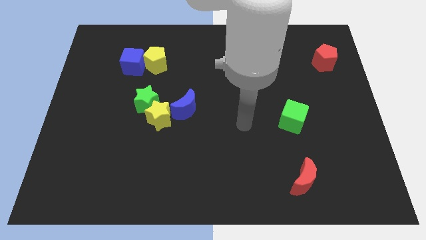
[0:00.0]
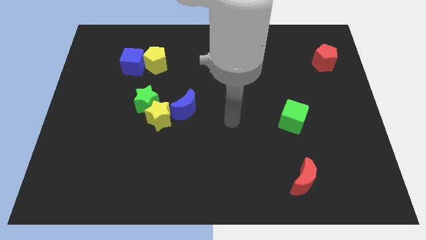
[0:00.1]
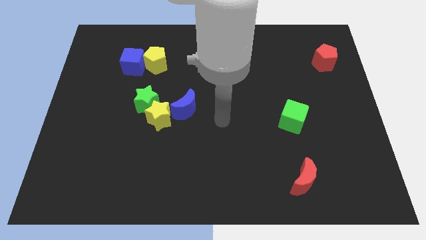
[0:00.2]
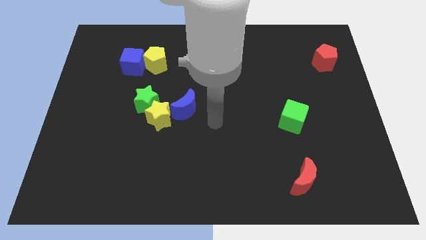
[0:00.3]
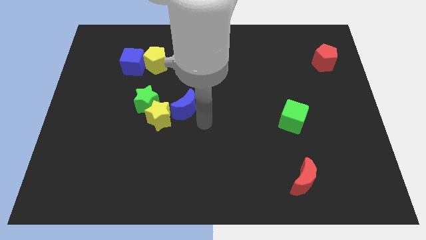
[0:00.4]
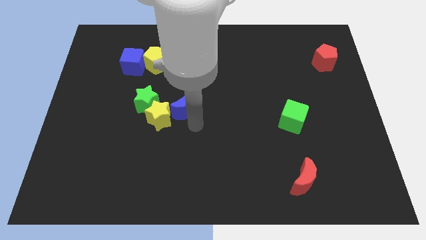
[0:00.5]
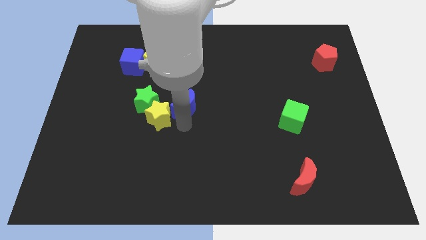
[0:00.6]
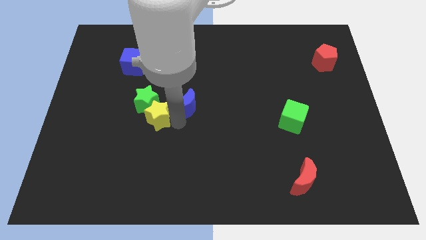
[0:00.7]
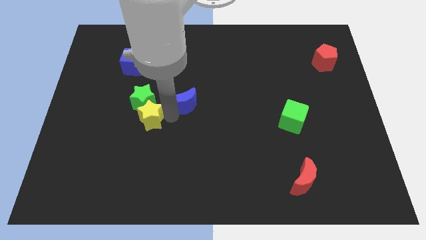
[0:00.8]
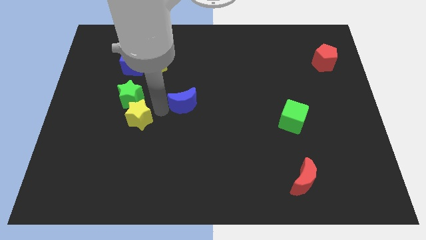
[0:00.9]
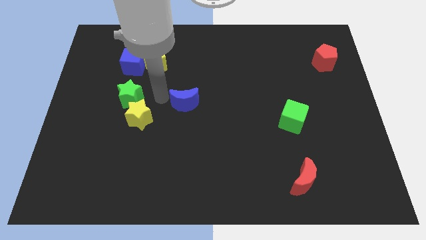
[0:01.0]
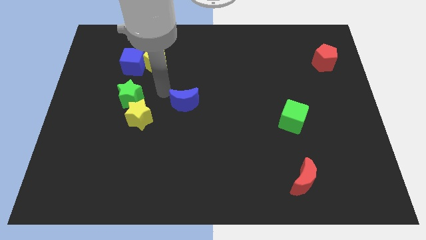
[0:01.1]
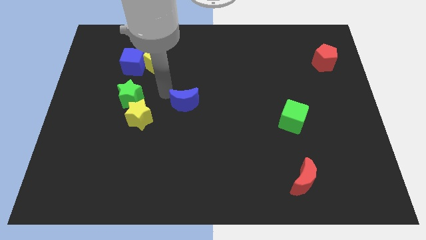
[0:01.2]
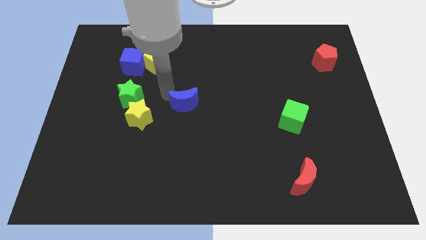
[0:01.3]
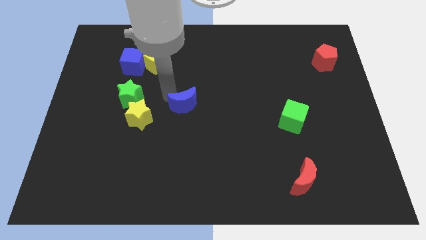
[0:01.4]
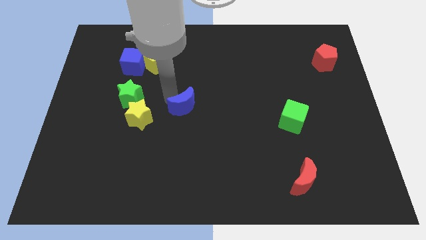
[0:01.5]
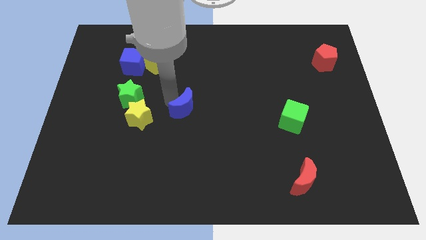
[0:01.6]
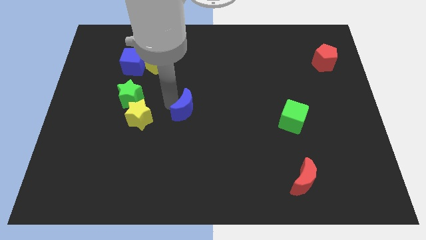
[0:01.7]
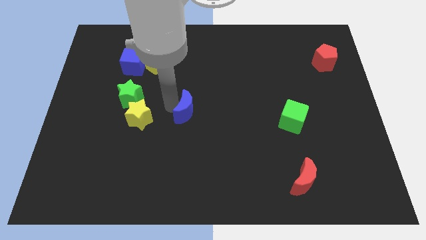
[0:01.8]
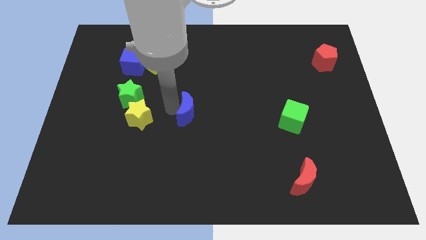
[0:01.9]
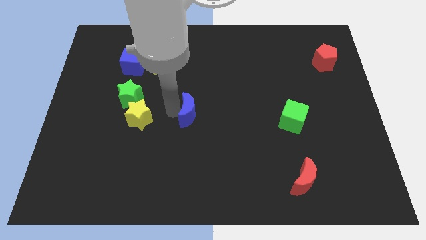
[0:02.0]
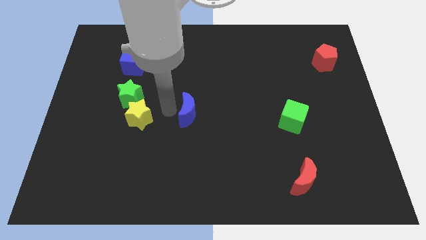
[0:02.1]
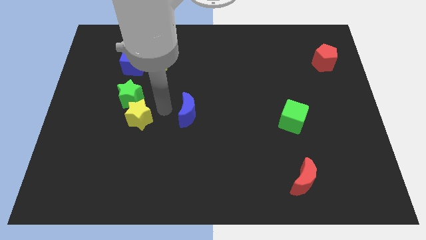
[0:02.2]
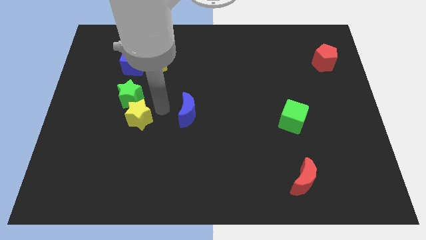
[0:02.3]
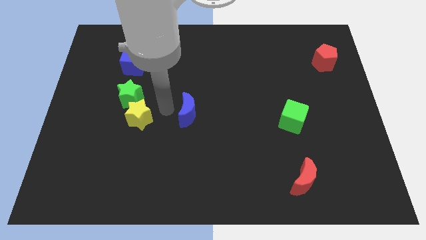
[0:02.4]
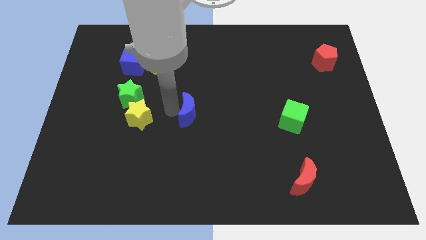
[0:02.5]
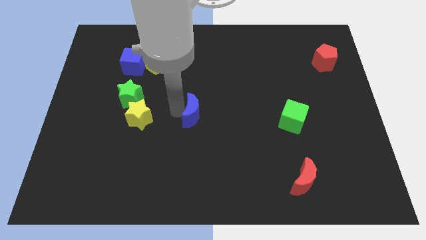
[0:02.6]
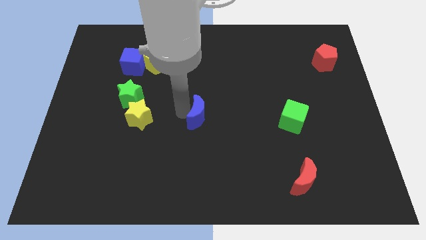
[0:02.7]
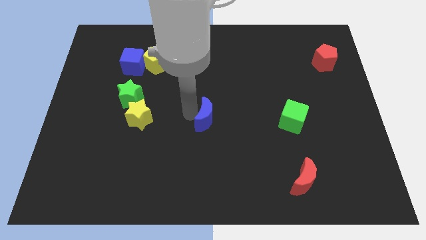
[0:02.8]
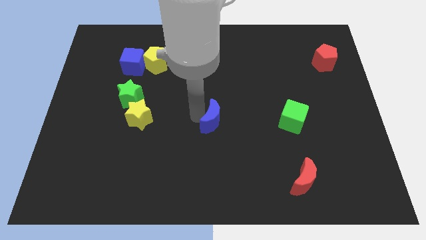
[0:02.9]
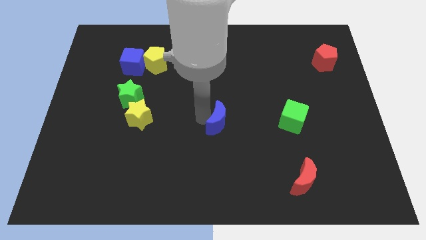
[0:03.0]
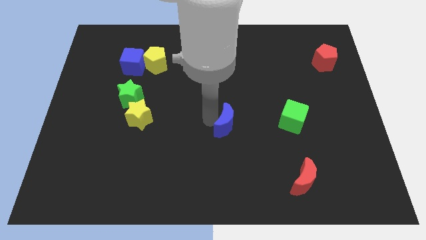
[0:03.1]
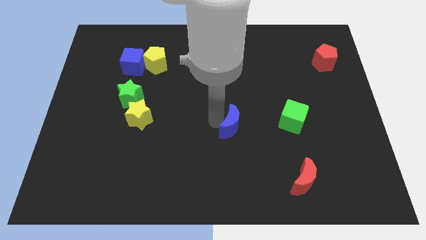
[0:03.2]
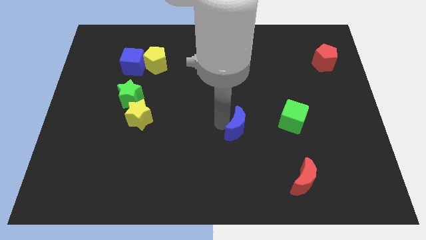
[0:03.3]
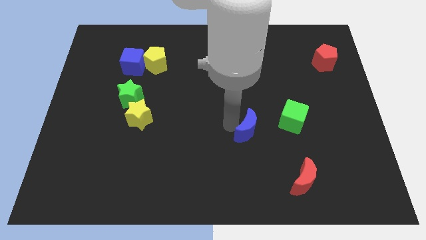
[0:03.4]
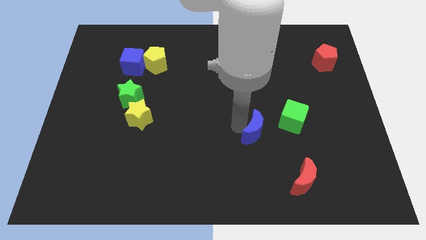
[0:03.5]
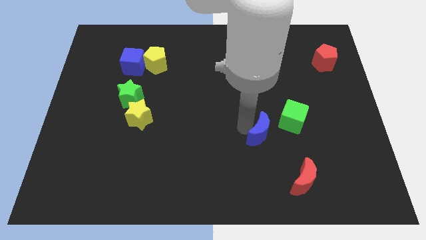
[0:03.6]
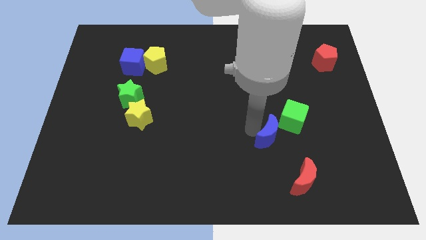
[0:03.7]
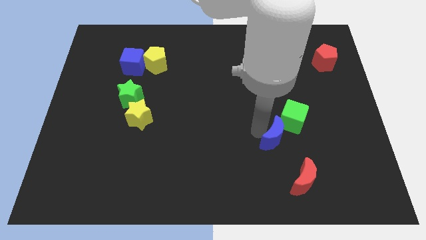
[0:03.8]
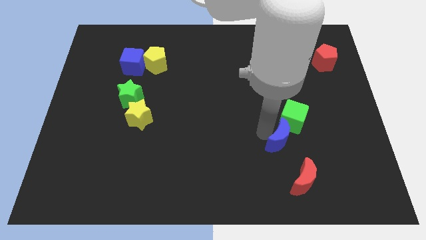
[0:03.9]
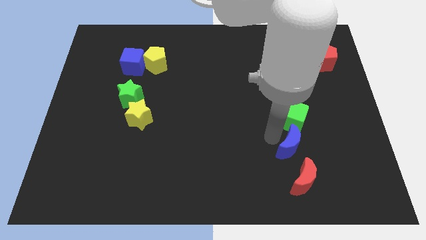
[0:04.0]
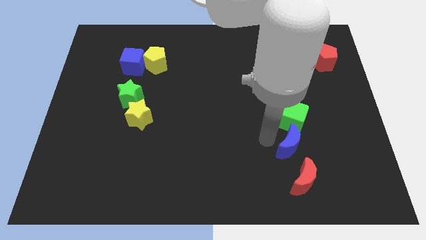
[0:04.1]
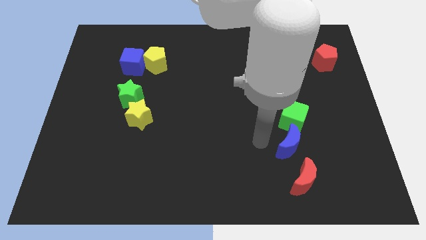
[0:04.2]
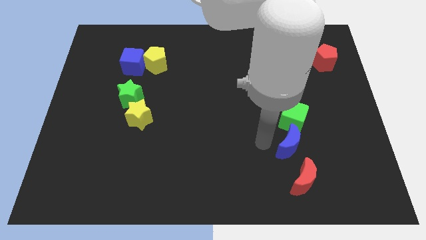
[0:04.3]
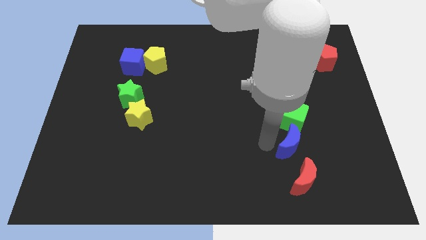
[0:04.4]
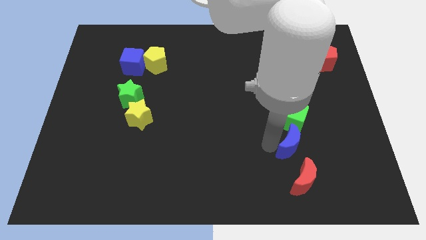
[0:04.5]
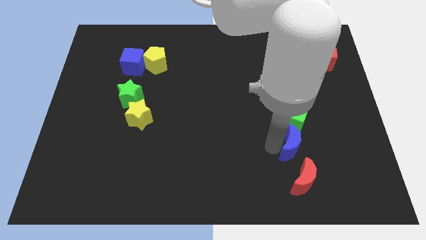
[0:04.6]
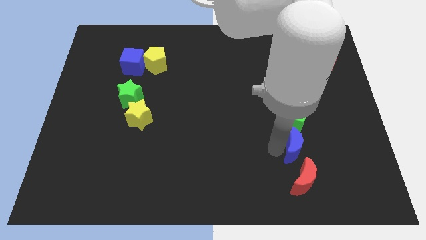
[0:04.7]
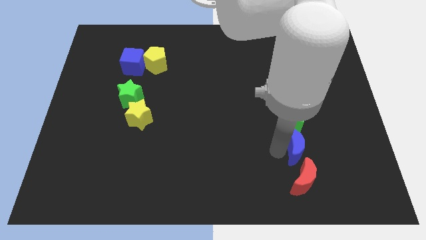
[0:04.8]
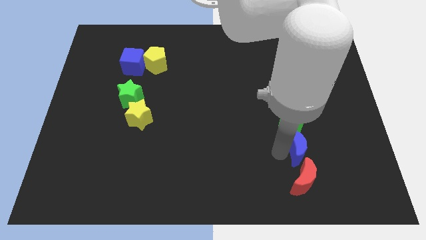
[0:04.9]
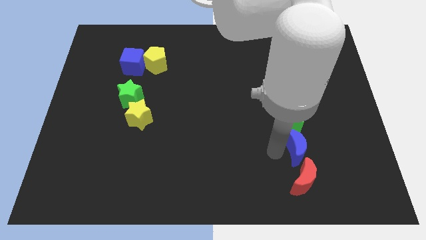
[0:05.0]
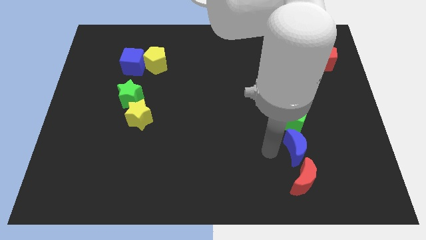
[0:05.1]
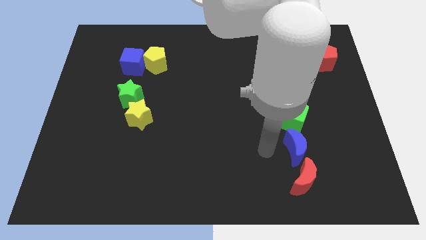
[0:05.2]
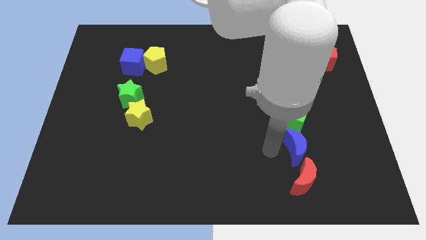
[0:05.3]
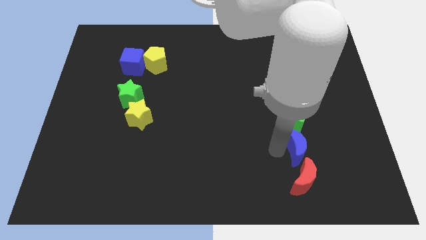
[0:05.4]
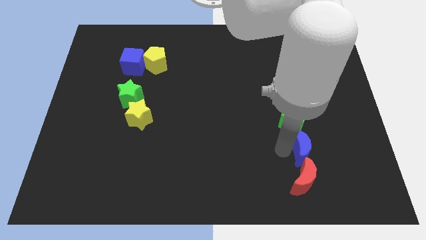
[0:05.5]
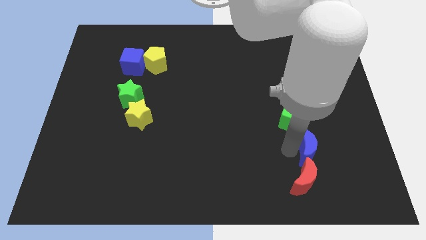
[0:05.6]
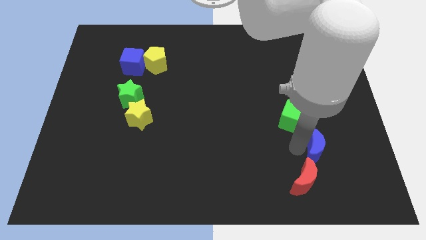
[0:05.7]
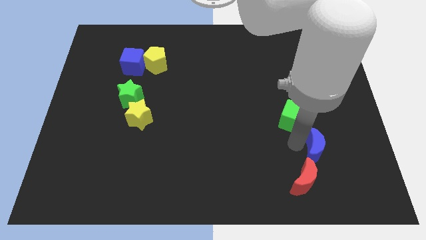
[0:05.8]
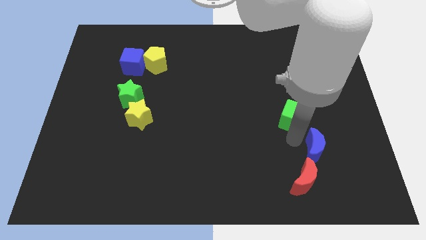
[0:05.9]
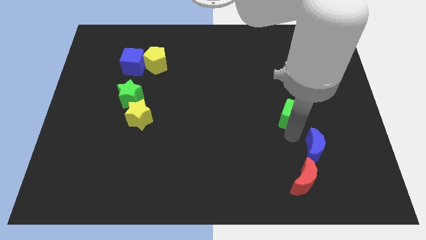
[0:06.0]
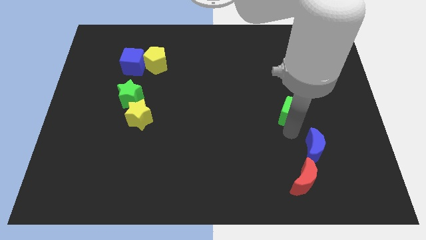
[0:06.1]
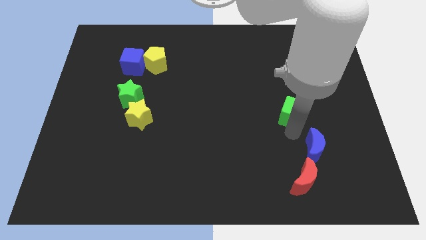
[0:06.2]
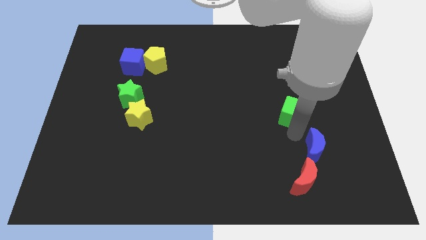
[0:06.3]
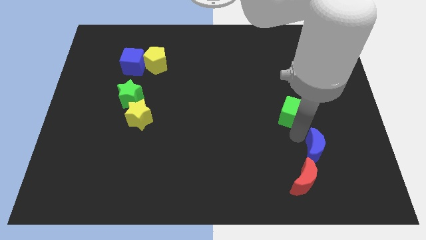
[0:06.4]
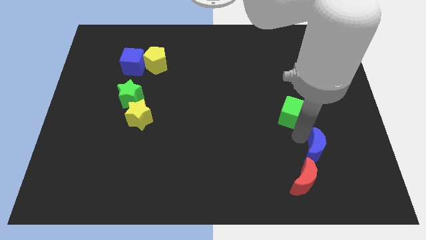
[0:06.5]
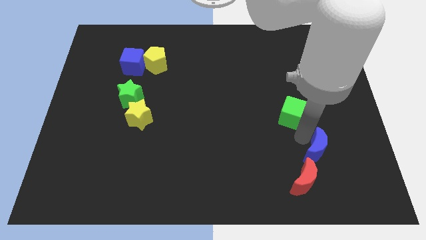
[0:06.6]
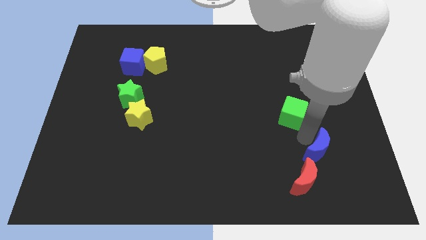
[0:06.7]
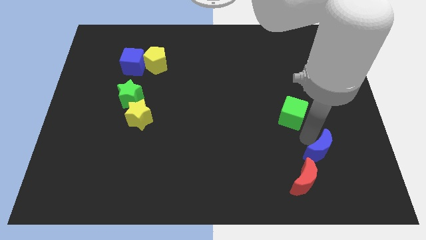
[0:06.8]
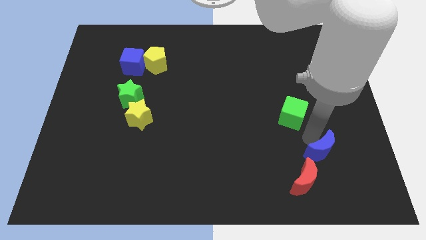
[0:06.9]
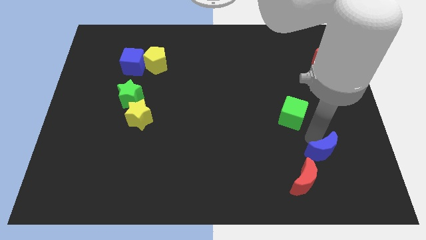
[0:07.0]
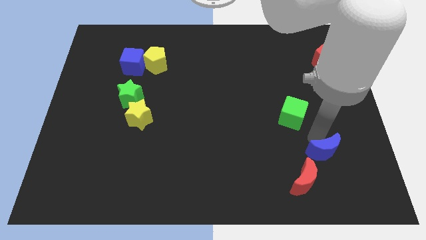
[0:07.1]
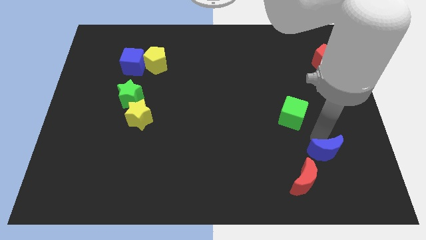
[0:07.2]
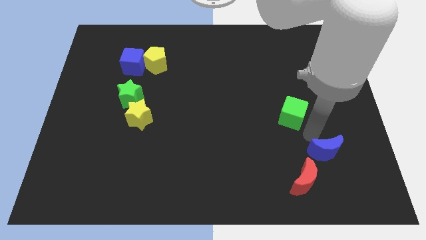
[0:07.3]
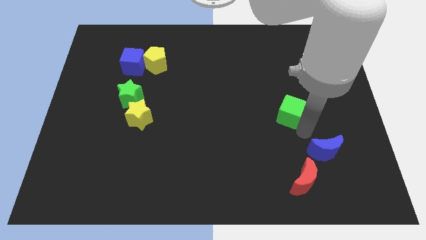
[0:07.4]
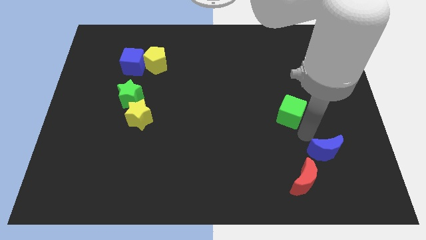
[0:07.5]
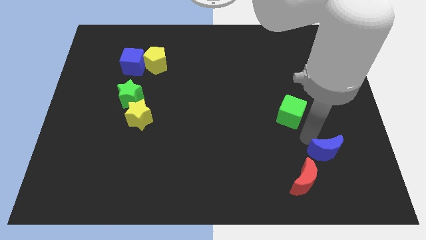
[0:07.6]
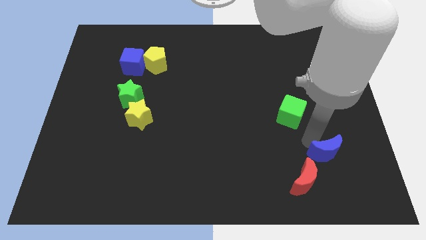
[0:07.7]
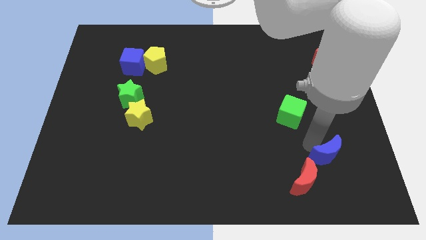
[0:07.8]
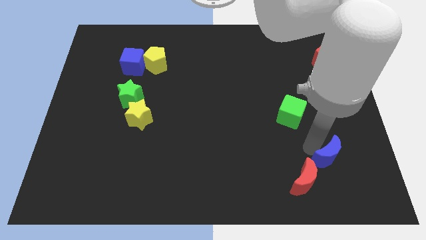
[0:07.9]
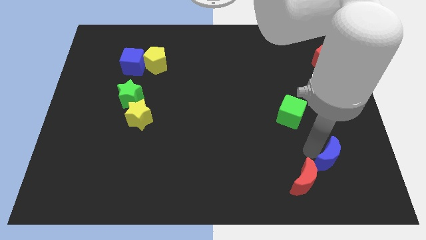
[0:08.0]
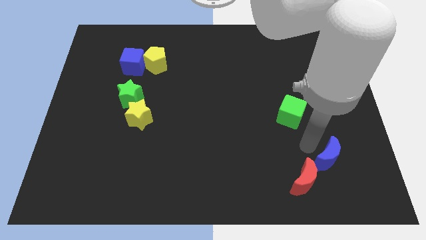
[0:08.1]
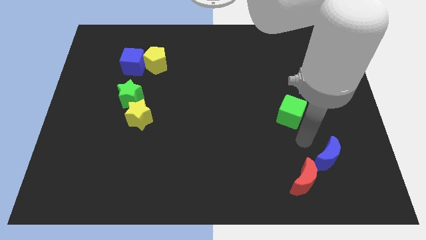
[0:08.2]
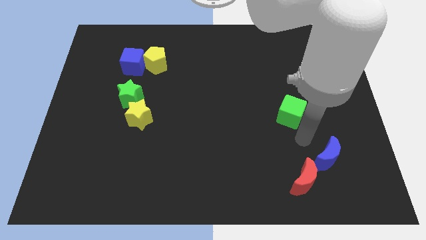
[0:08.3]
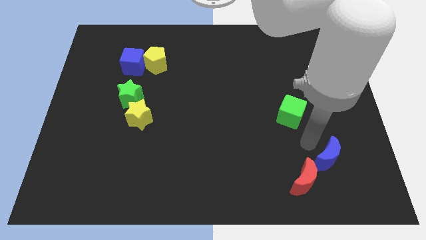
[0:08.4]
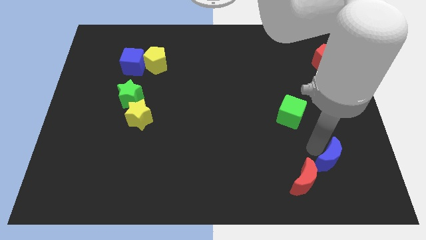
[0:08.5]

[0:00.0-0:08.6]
move the blue moon to the right of the red moon
